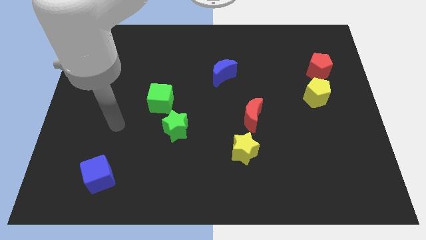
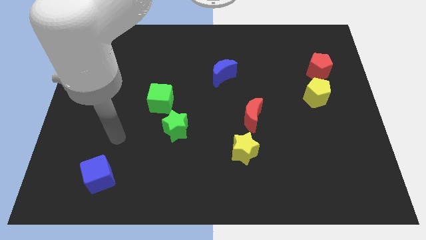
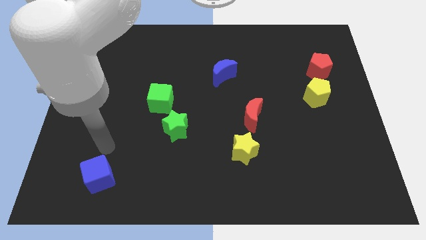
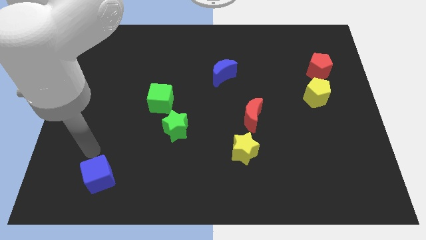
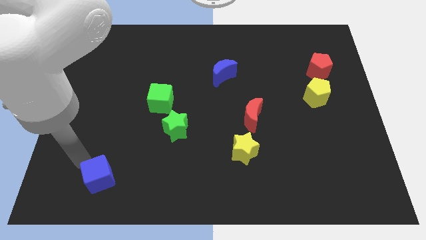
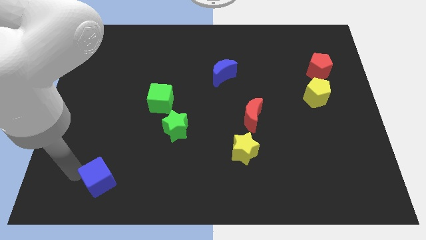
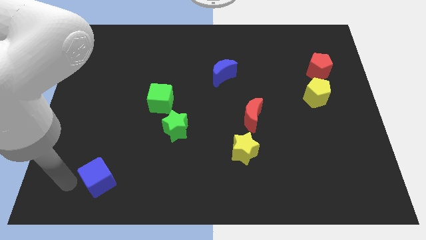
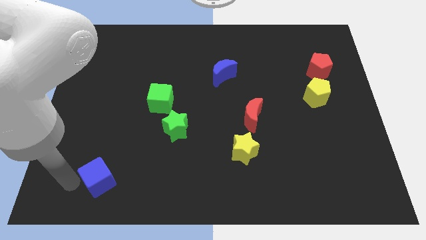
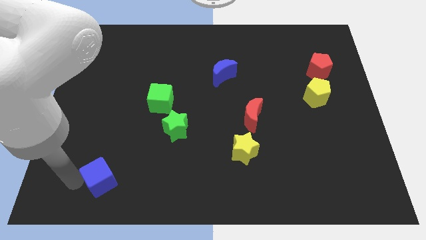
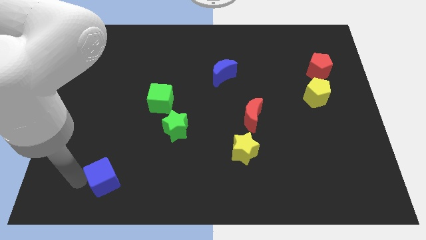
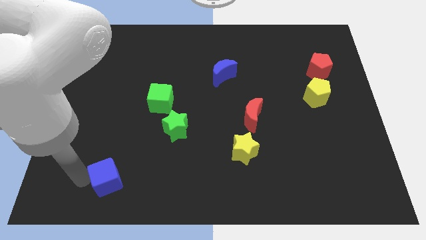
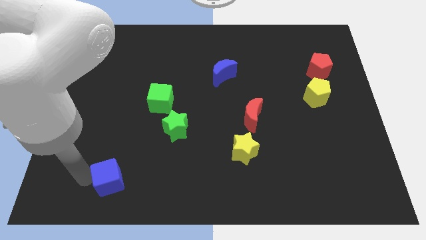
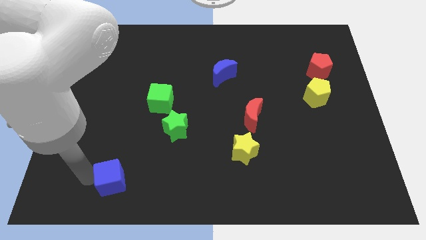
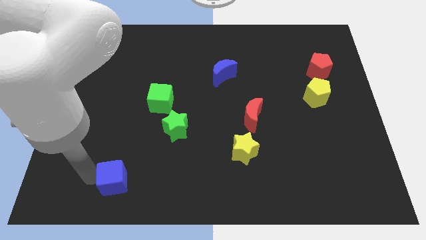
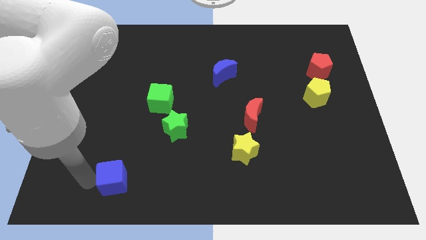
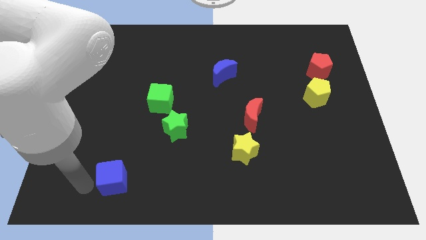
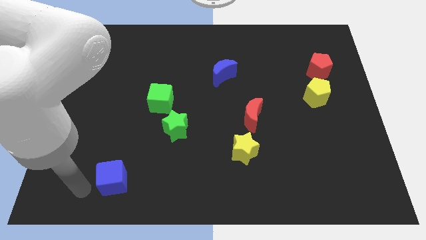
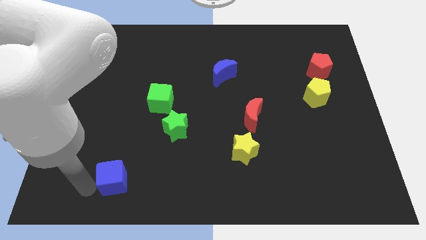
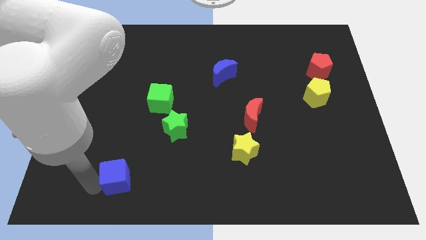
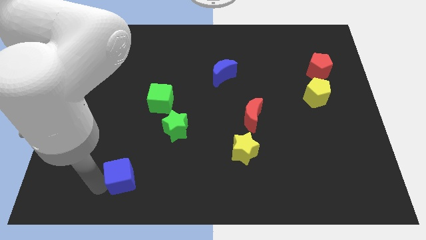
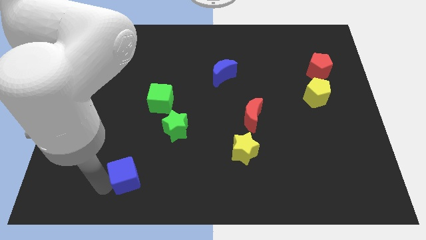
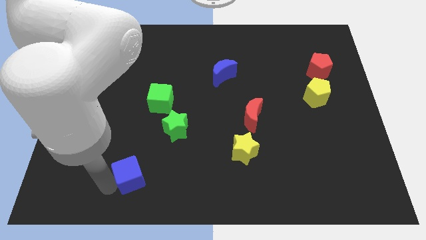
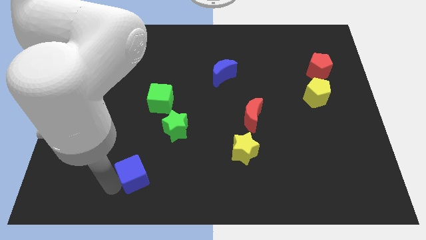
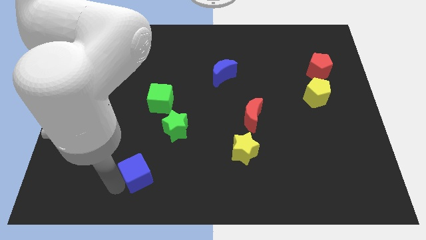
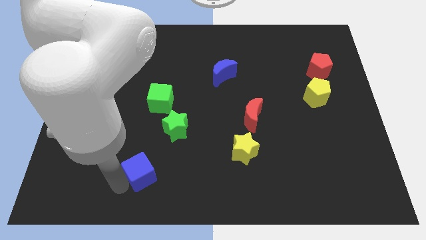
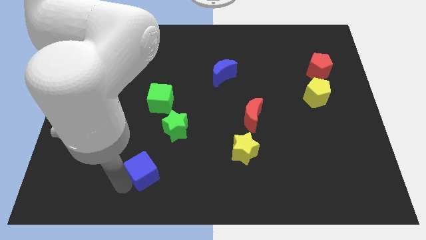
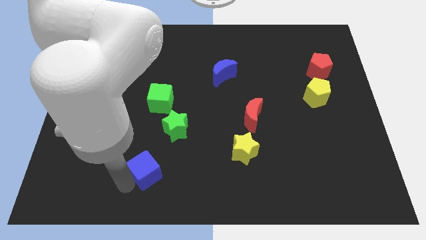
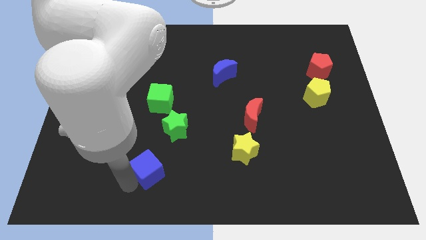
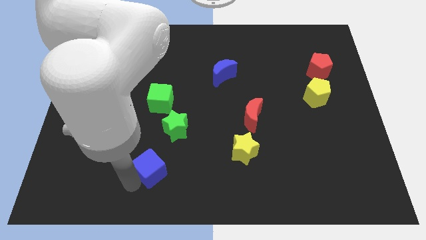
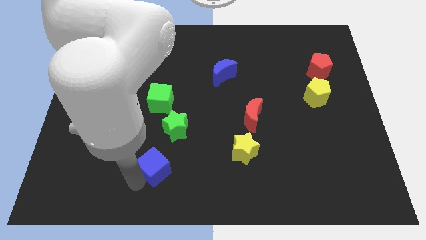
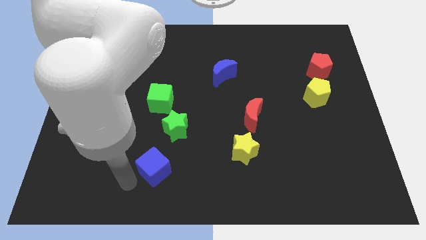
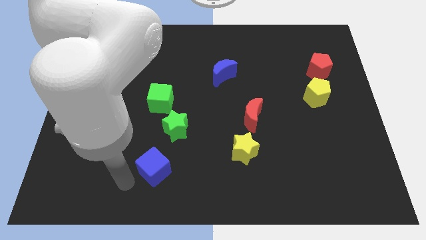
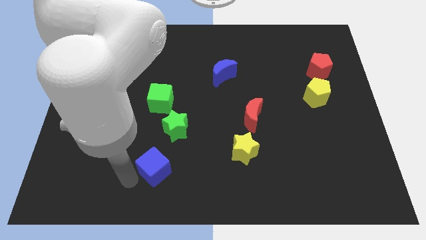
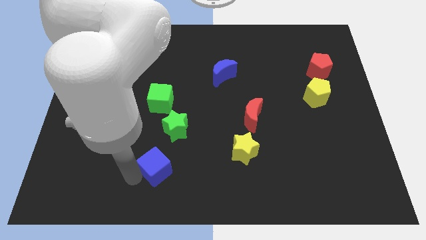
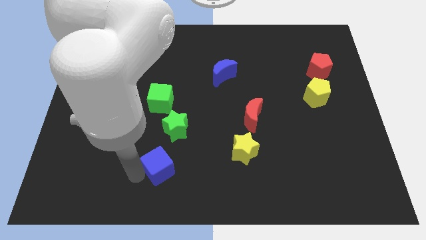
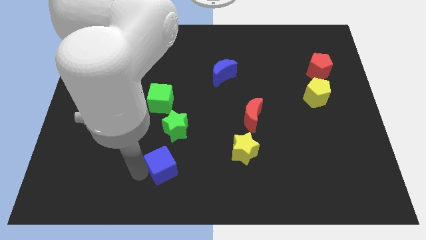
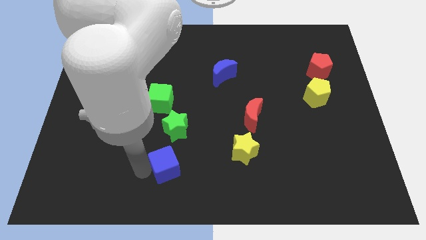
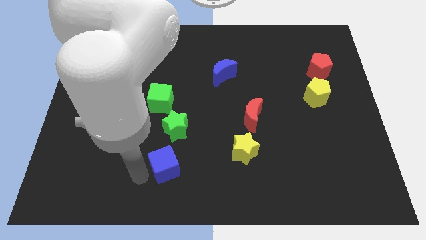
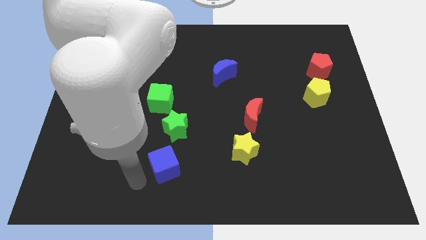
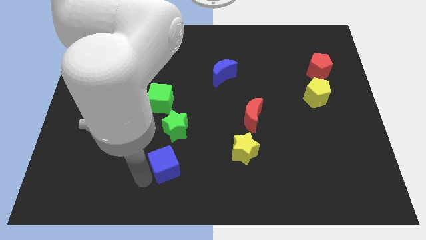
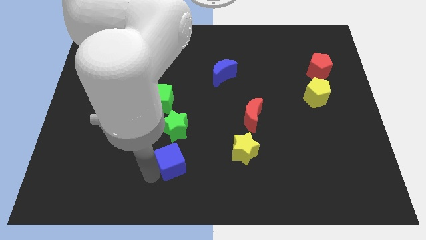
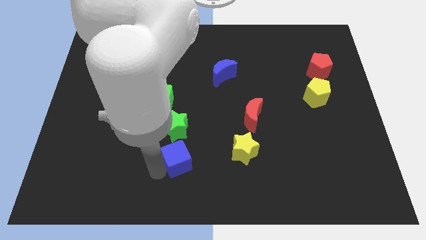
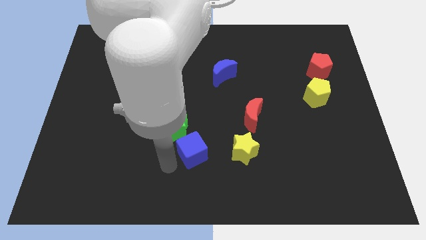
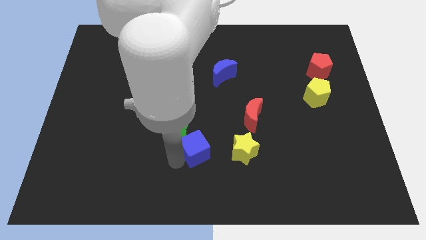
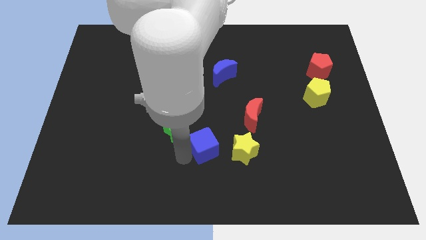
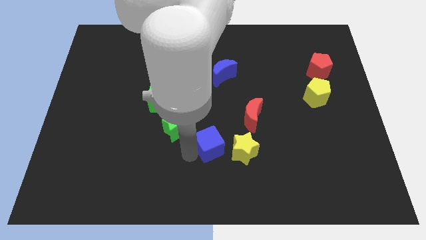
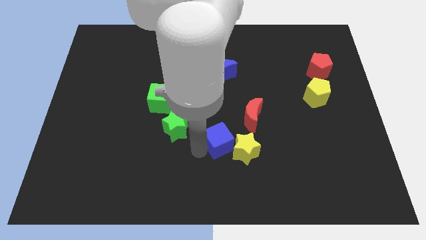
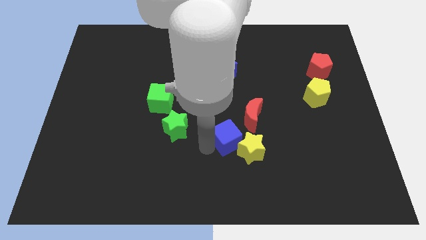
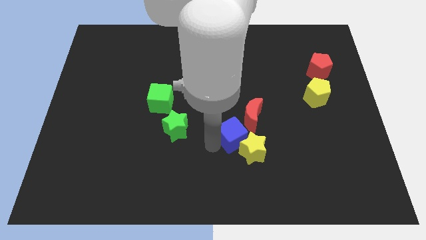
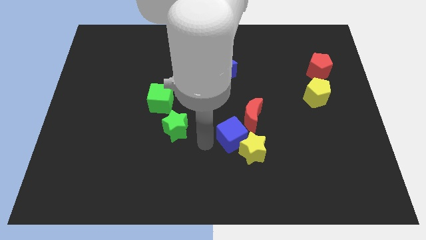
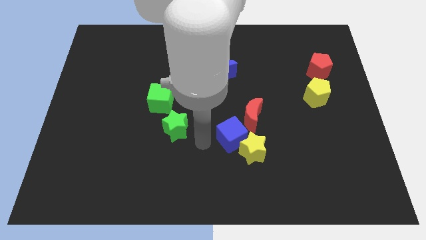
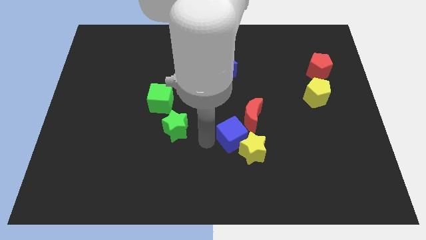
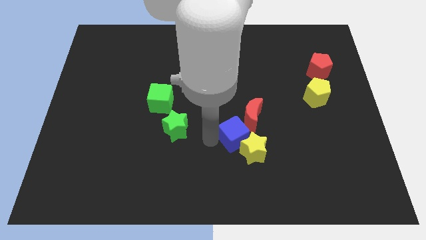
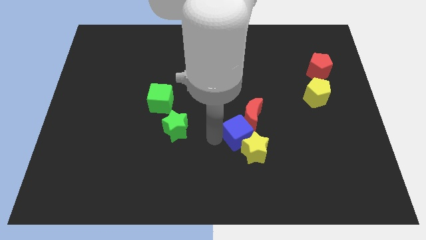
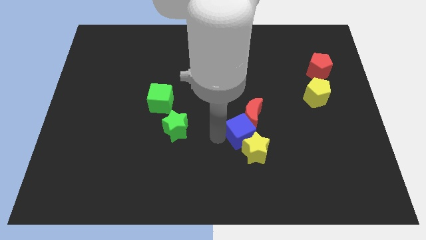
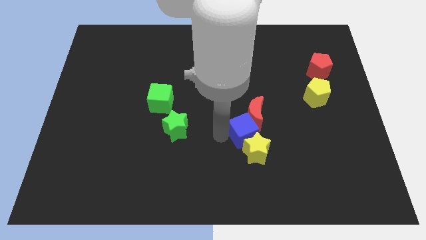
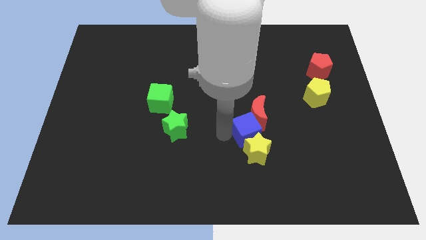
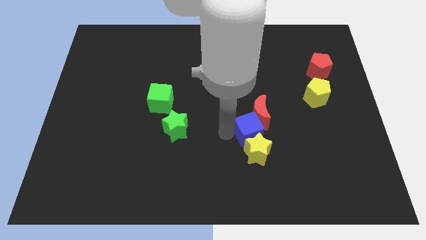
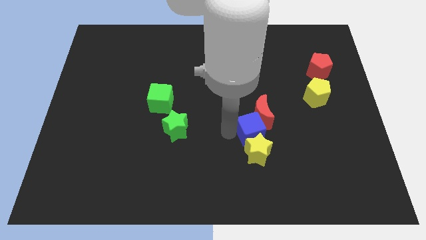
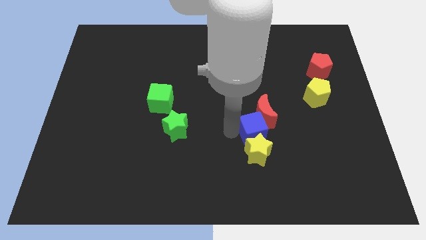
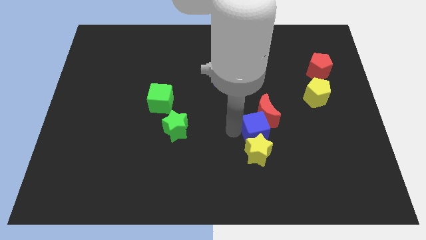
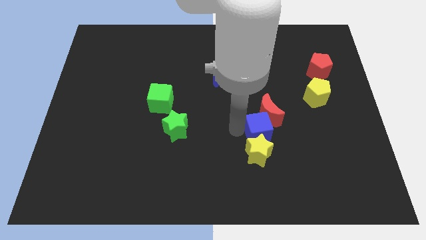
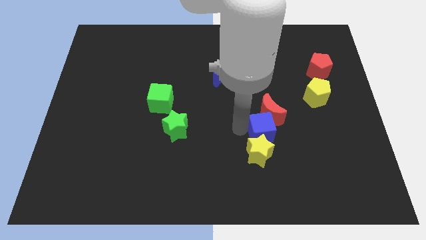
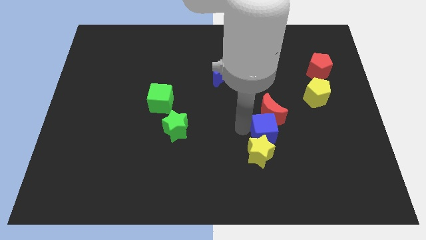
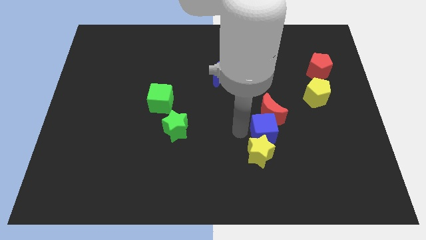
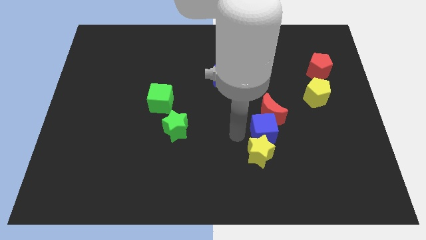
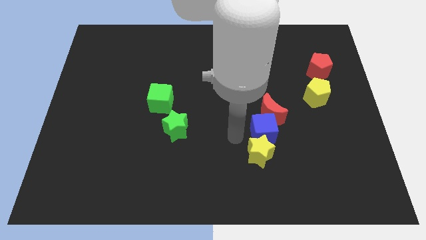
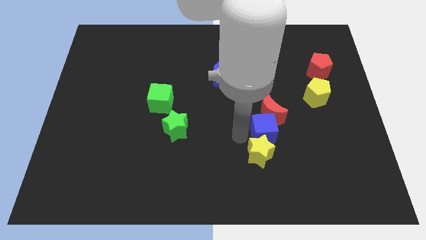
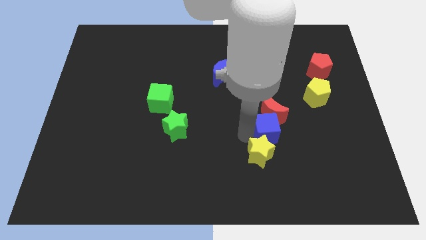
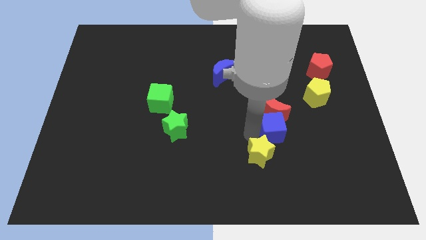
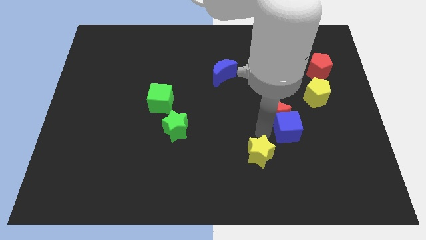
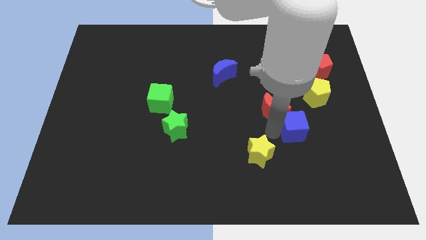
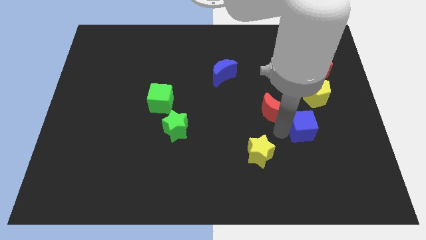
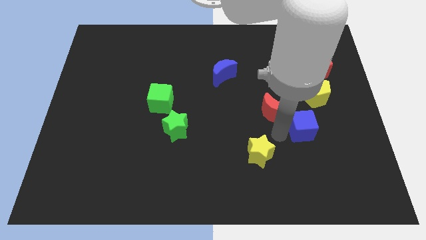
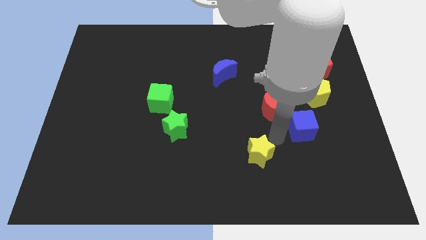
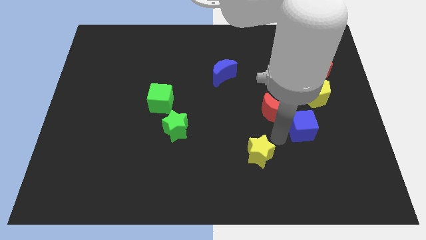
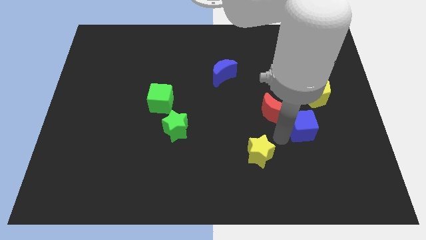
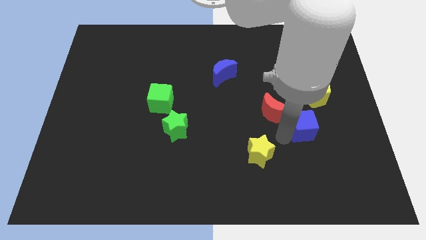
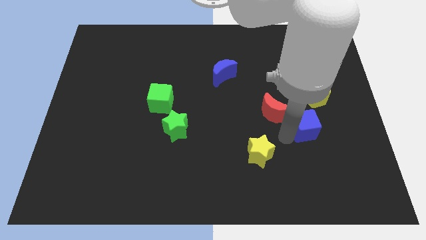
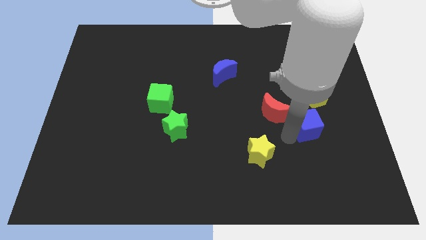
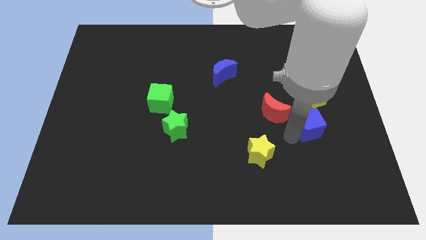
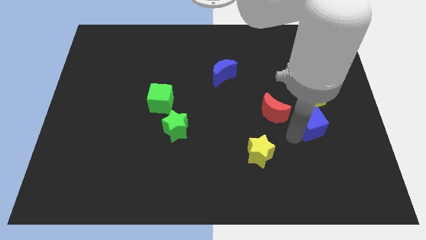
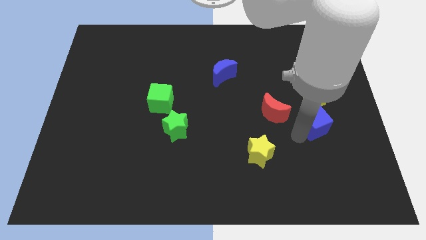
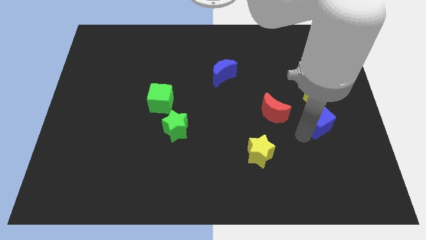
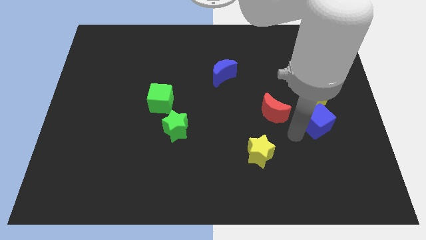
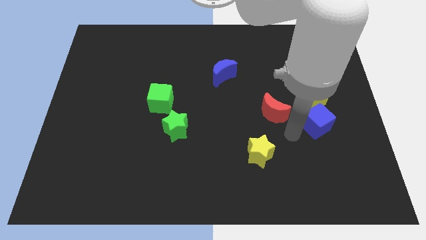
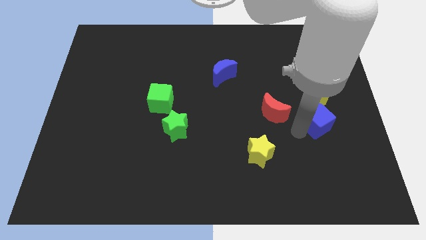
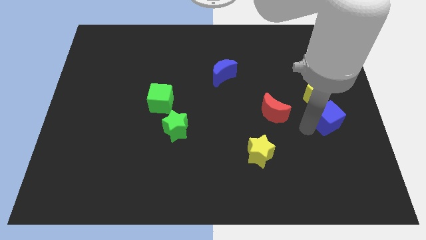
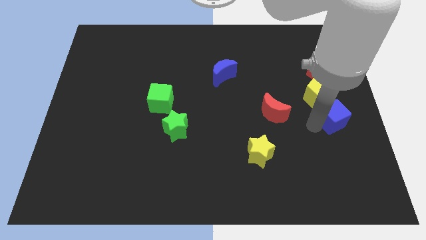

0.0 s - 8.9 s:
move the blue cube to the right side
